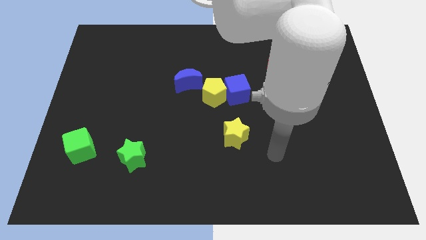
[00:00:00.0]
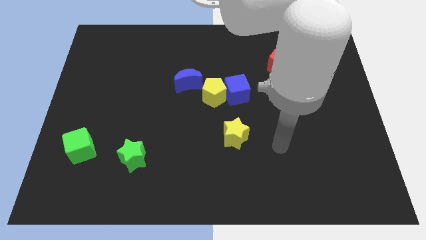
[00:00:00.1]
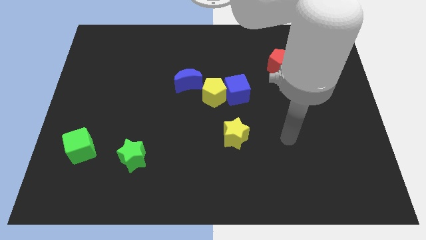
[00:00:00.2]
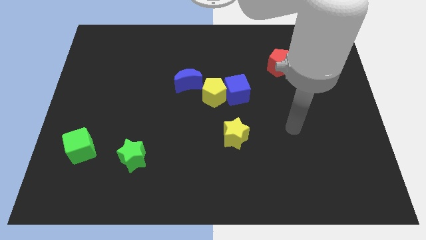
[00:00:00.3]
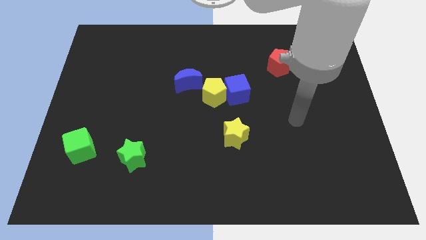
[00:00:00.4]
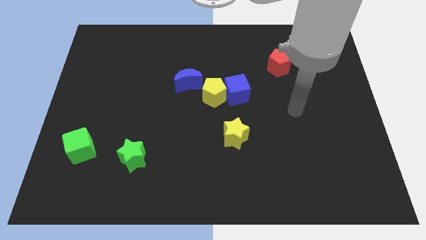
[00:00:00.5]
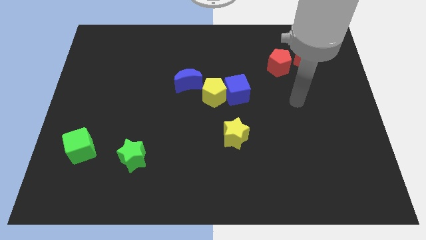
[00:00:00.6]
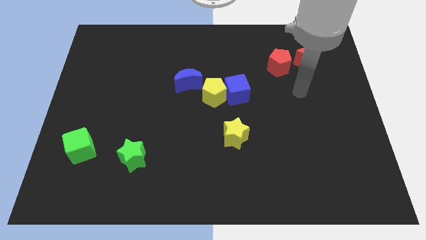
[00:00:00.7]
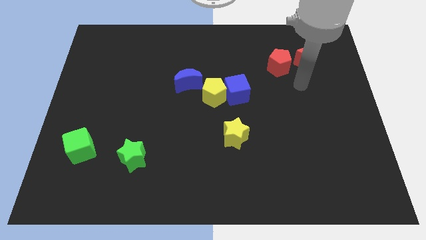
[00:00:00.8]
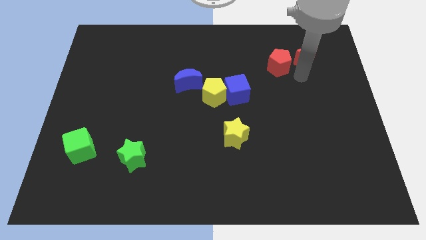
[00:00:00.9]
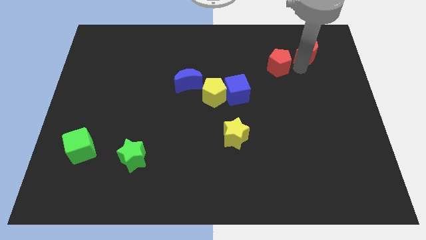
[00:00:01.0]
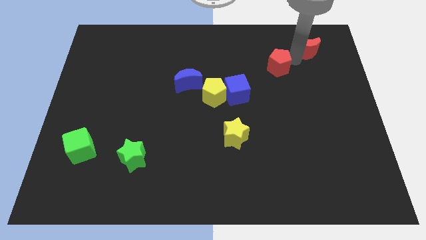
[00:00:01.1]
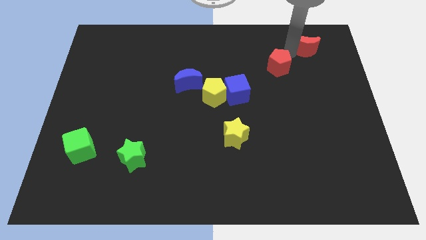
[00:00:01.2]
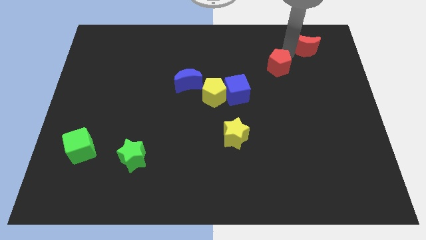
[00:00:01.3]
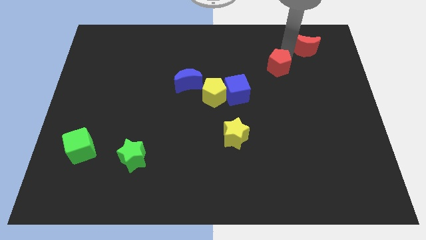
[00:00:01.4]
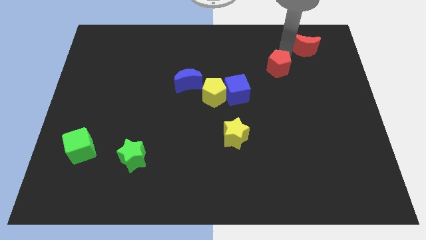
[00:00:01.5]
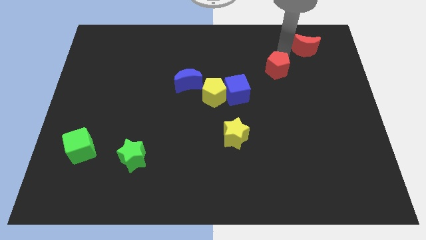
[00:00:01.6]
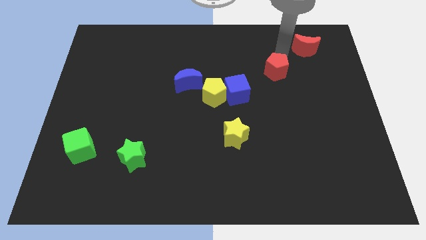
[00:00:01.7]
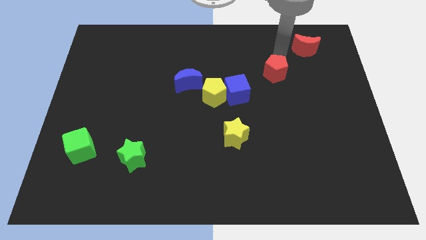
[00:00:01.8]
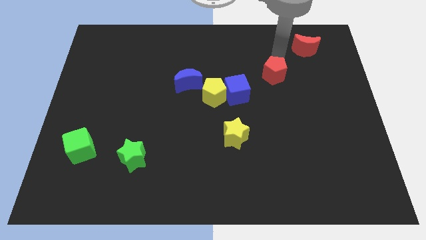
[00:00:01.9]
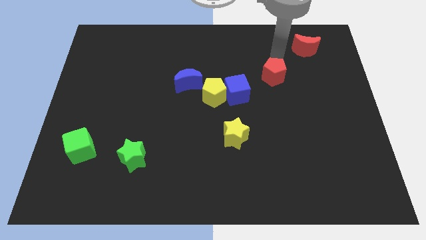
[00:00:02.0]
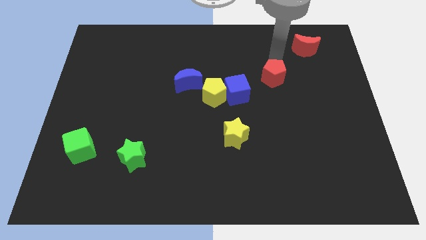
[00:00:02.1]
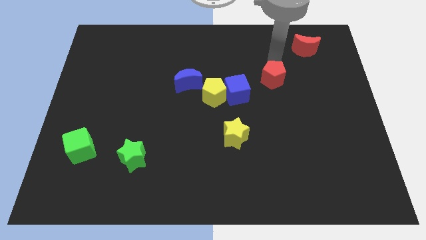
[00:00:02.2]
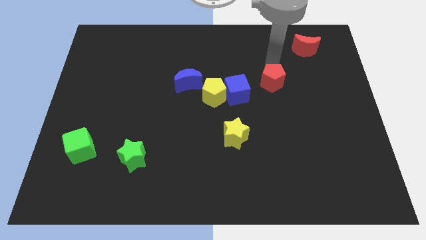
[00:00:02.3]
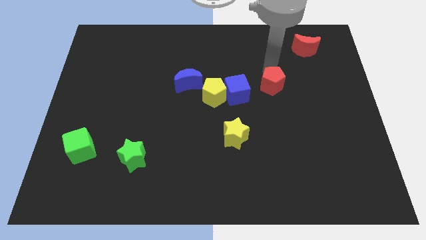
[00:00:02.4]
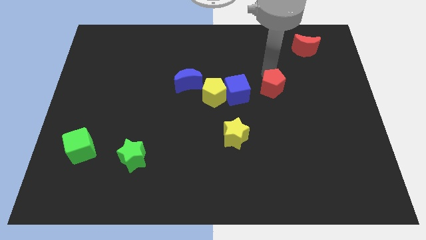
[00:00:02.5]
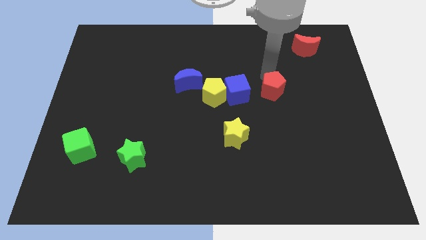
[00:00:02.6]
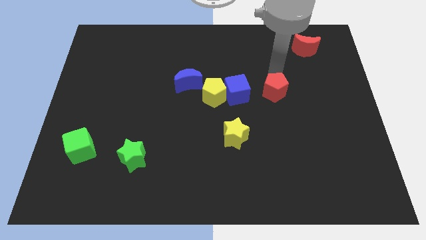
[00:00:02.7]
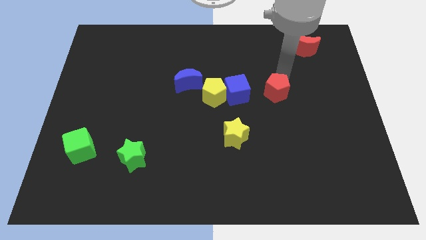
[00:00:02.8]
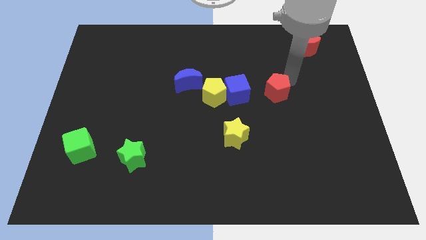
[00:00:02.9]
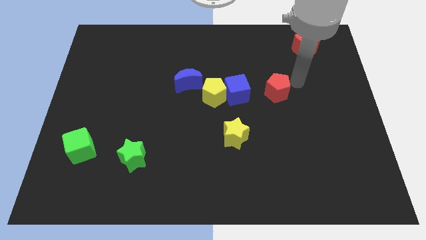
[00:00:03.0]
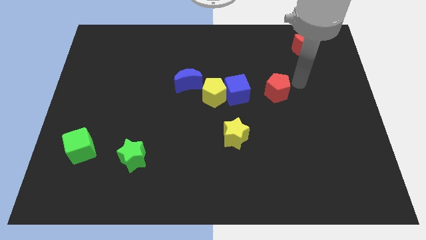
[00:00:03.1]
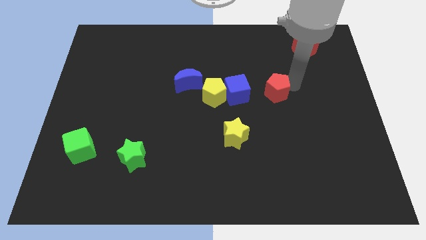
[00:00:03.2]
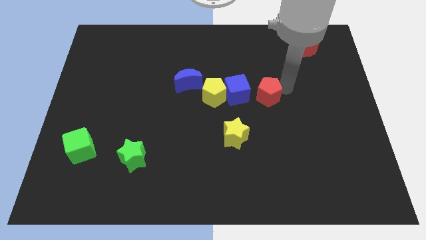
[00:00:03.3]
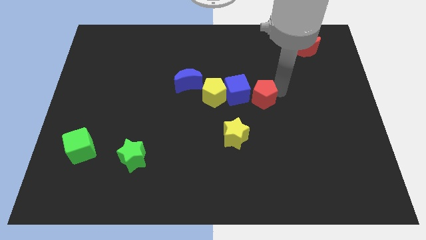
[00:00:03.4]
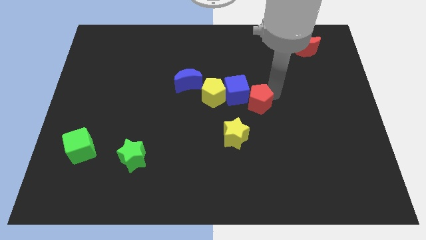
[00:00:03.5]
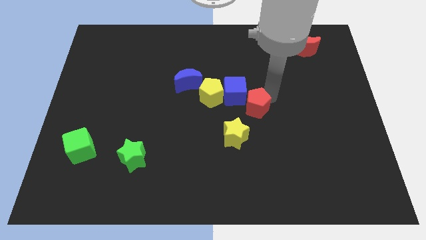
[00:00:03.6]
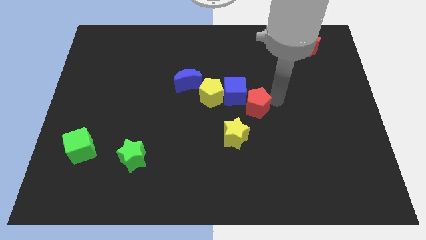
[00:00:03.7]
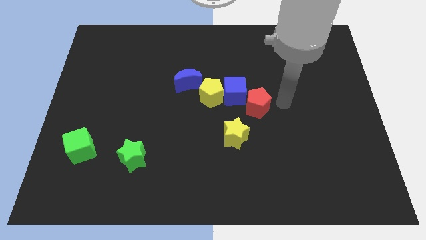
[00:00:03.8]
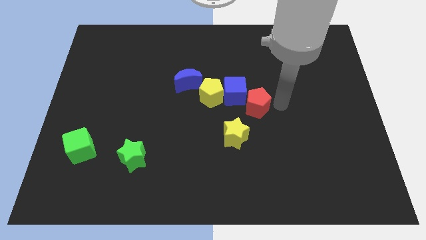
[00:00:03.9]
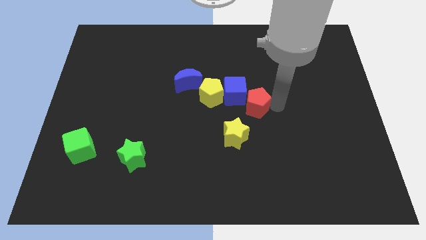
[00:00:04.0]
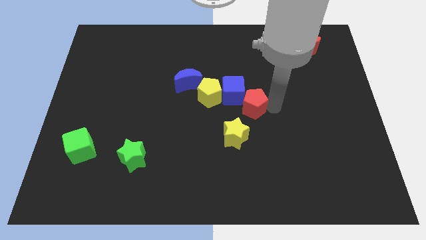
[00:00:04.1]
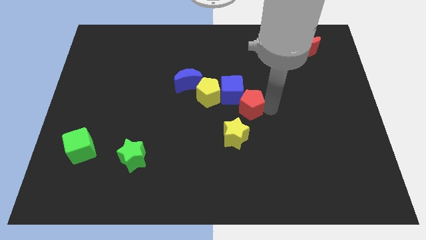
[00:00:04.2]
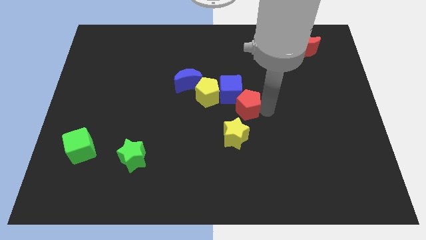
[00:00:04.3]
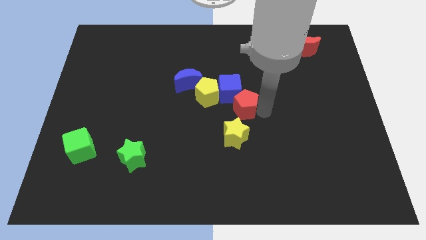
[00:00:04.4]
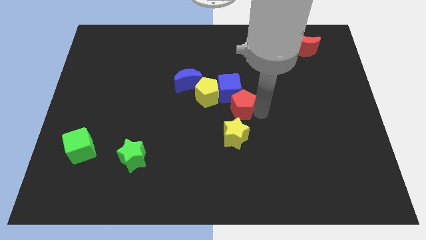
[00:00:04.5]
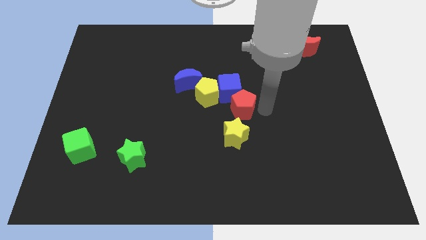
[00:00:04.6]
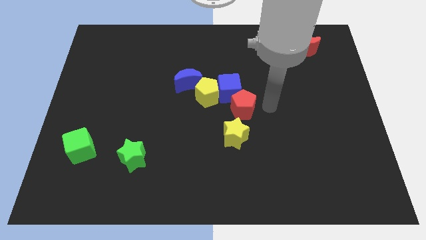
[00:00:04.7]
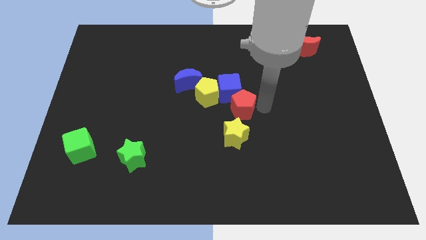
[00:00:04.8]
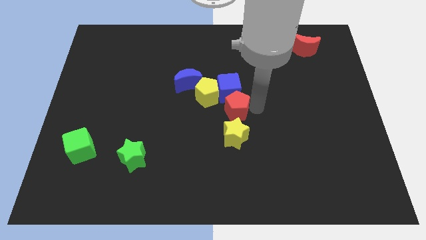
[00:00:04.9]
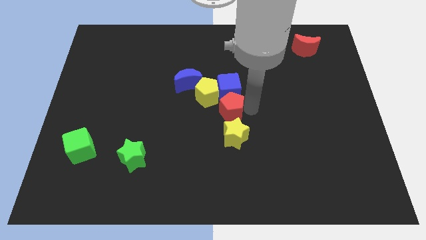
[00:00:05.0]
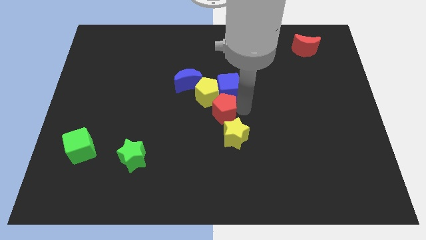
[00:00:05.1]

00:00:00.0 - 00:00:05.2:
move the red pentagon down and then left

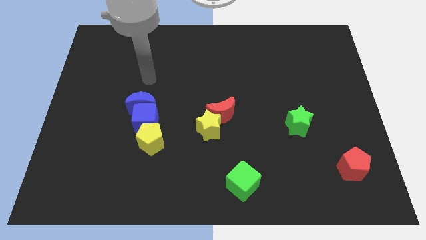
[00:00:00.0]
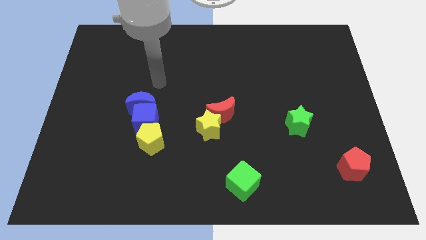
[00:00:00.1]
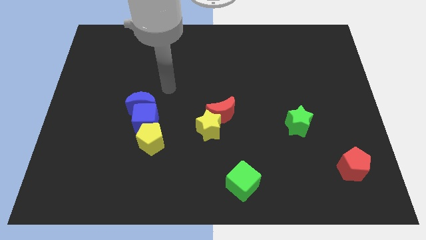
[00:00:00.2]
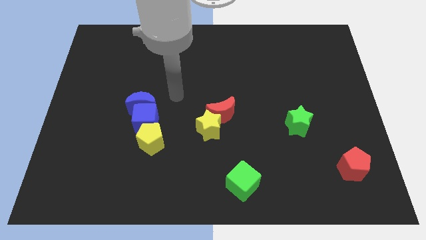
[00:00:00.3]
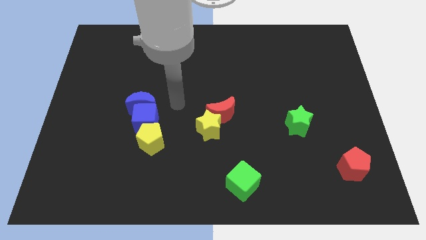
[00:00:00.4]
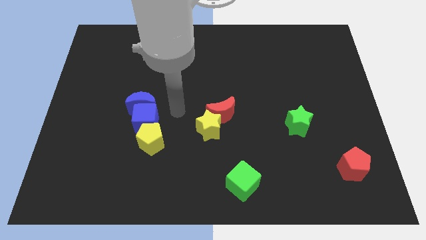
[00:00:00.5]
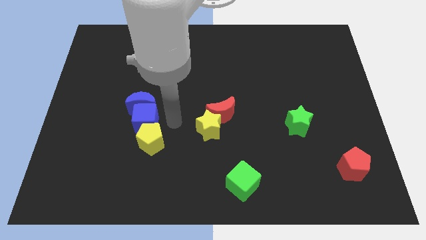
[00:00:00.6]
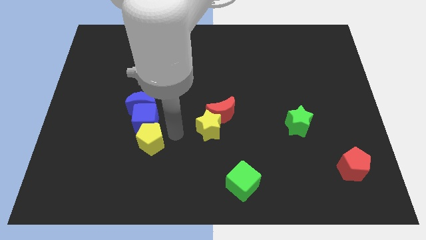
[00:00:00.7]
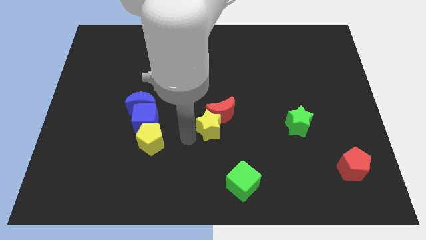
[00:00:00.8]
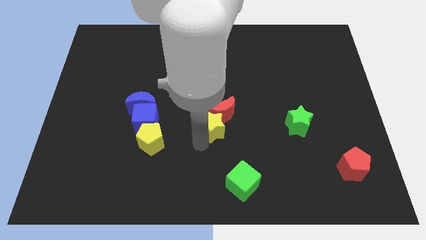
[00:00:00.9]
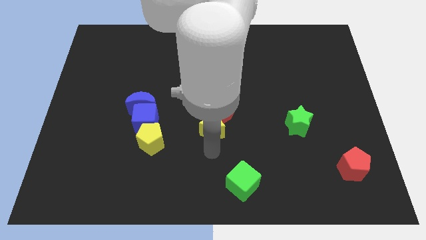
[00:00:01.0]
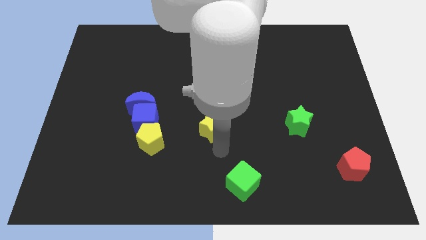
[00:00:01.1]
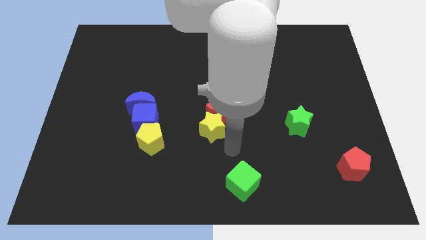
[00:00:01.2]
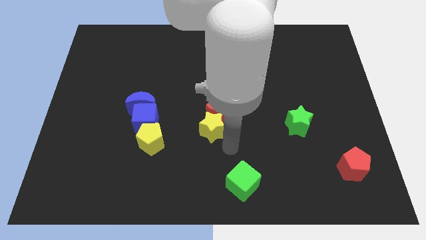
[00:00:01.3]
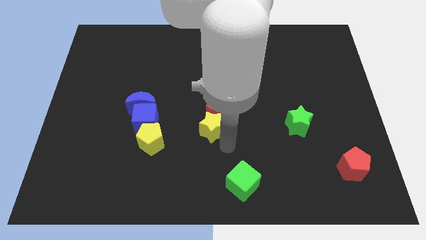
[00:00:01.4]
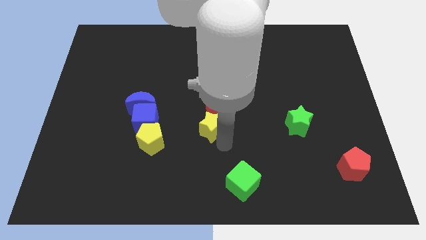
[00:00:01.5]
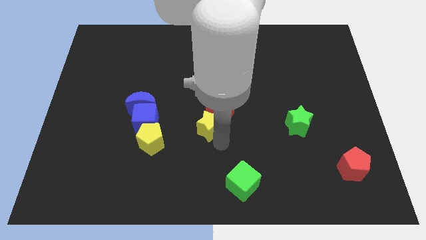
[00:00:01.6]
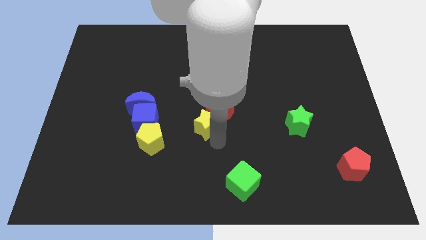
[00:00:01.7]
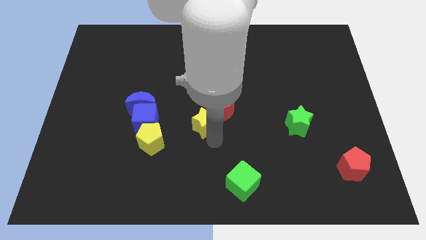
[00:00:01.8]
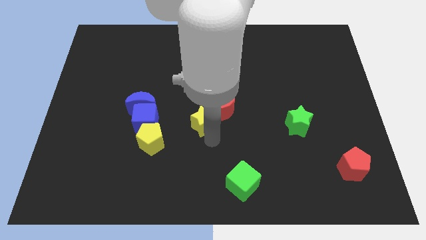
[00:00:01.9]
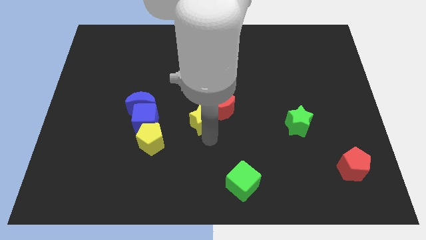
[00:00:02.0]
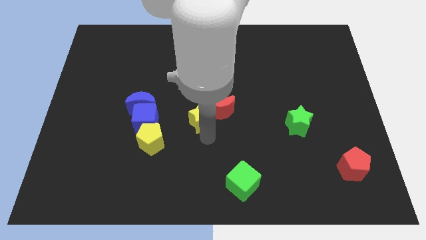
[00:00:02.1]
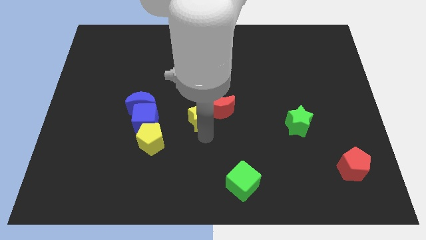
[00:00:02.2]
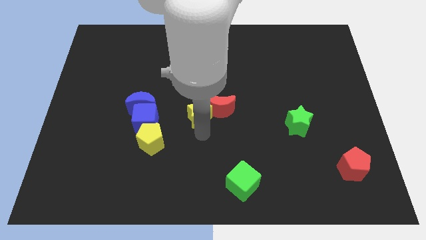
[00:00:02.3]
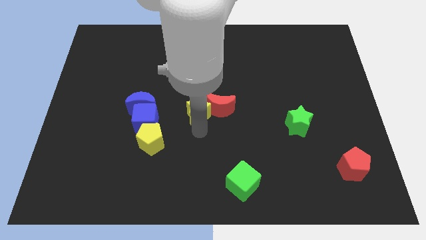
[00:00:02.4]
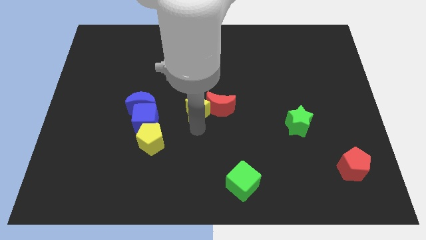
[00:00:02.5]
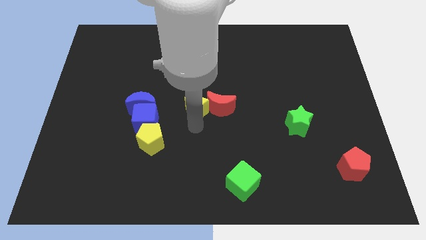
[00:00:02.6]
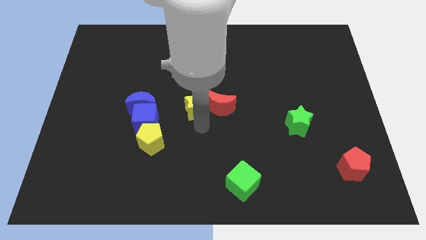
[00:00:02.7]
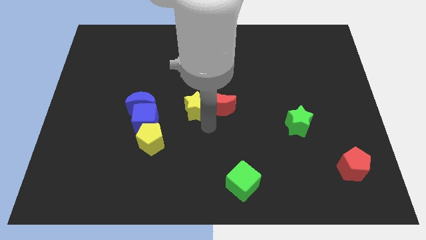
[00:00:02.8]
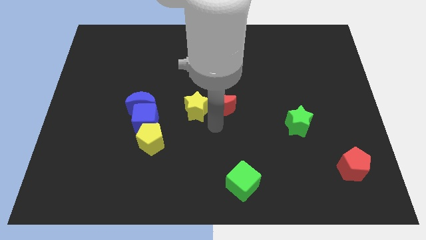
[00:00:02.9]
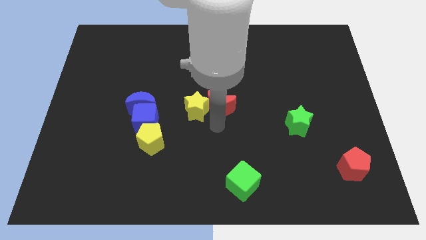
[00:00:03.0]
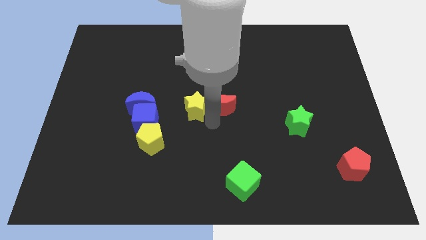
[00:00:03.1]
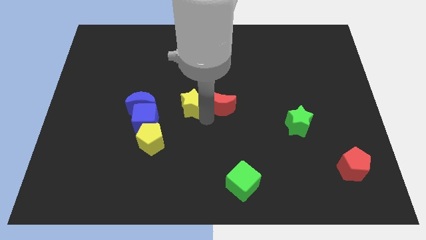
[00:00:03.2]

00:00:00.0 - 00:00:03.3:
slightly slide the yellow star upwards and left
